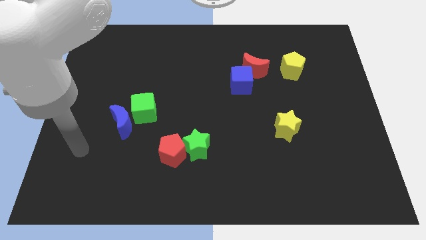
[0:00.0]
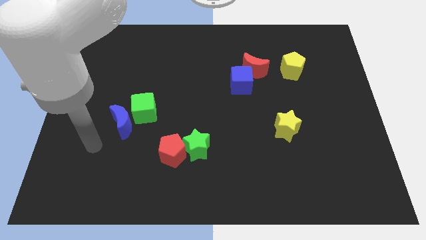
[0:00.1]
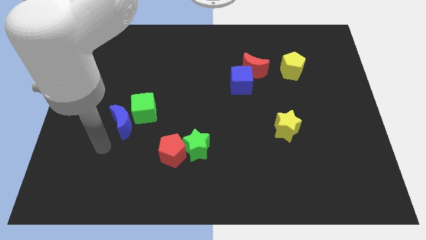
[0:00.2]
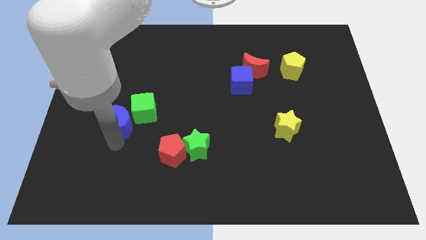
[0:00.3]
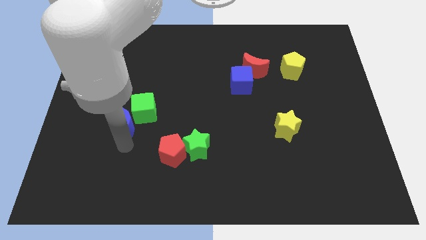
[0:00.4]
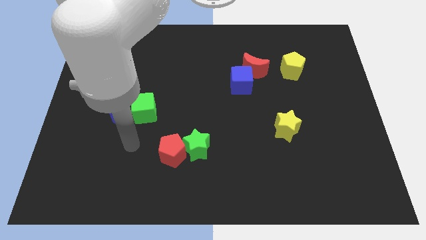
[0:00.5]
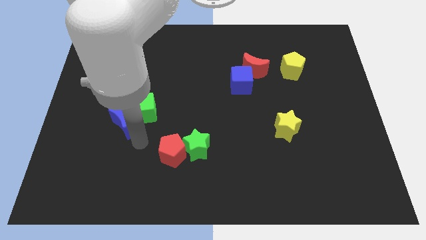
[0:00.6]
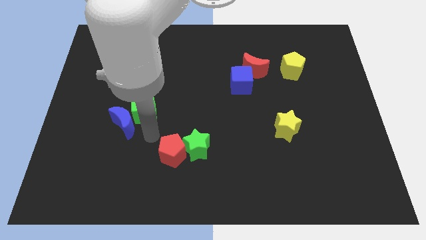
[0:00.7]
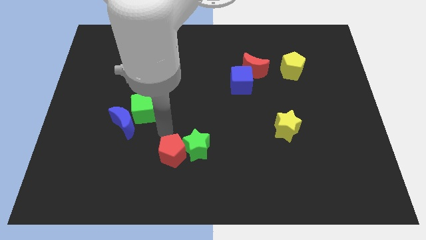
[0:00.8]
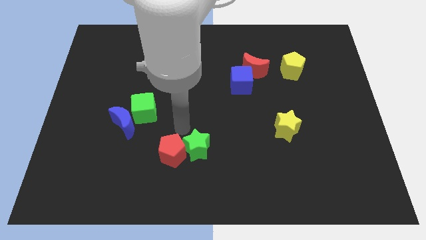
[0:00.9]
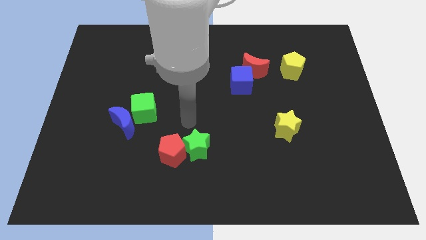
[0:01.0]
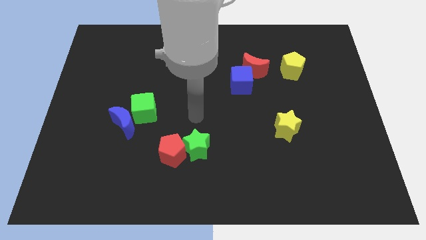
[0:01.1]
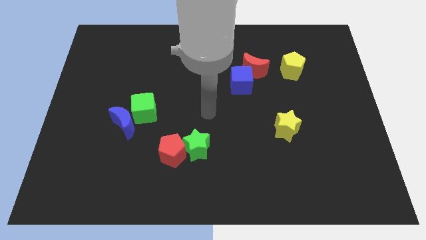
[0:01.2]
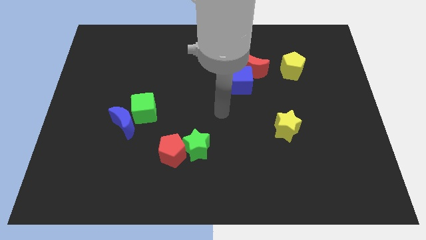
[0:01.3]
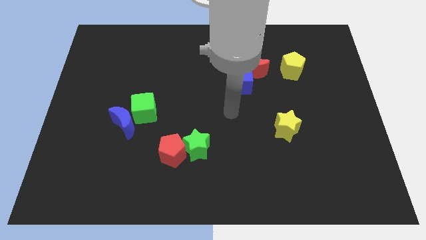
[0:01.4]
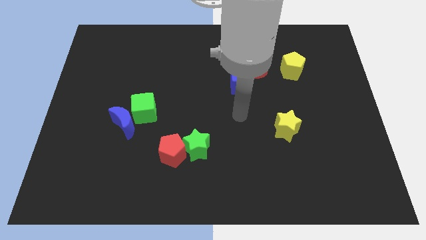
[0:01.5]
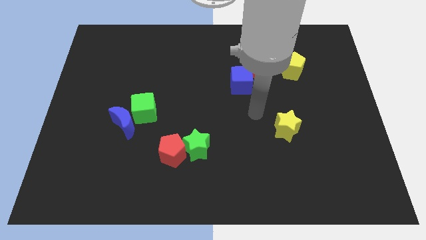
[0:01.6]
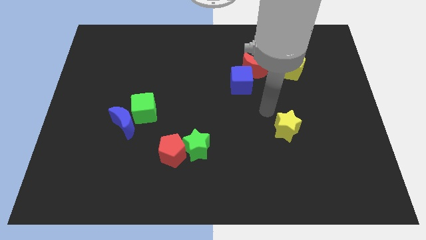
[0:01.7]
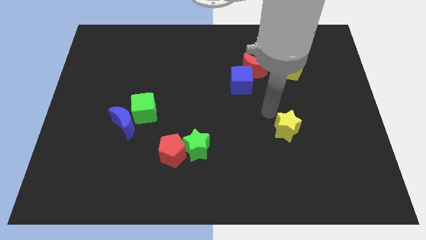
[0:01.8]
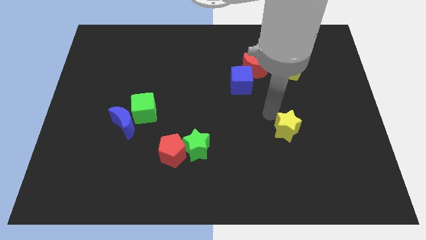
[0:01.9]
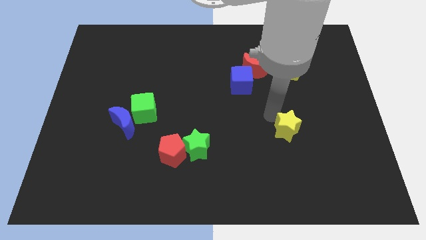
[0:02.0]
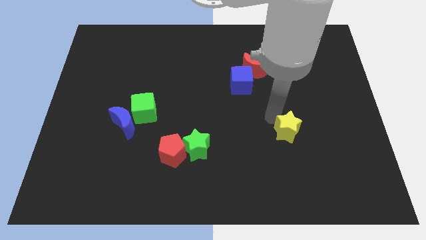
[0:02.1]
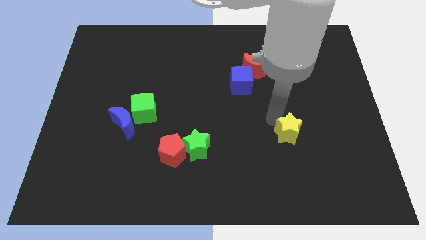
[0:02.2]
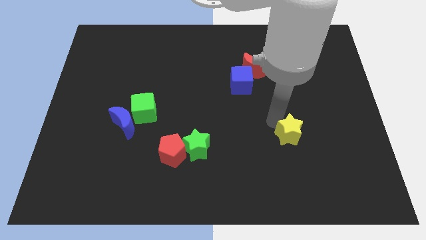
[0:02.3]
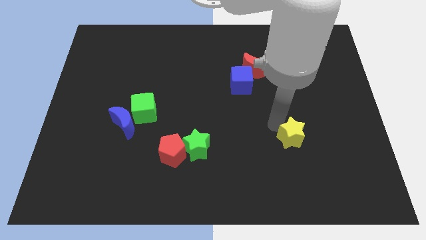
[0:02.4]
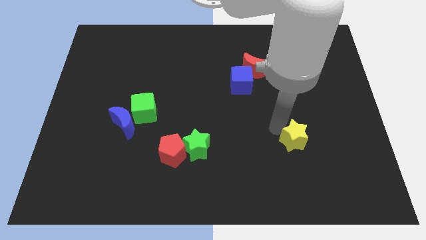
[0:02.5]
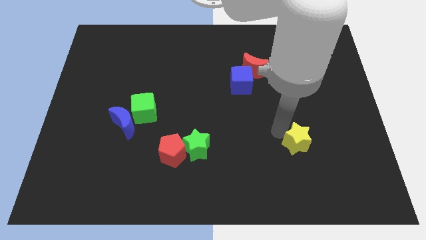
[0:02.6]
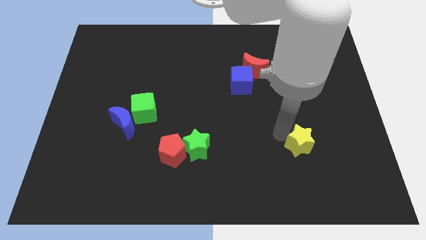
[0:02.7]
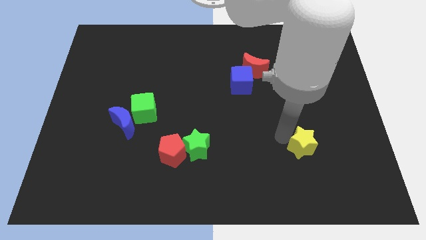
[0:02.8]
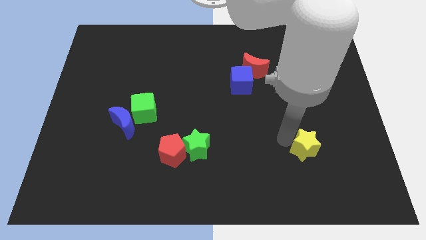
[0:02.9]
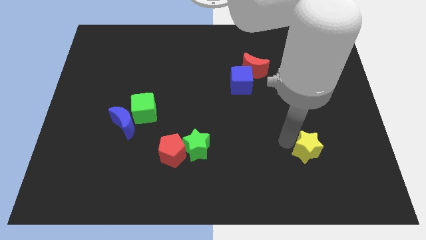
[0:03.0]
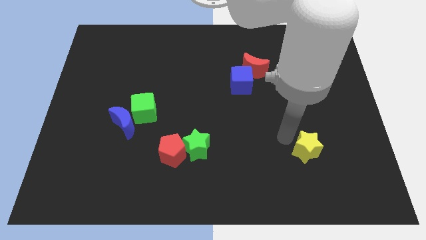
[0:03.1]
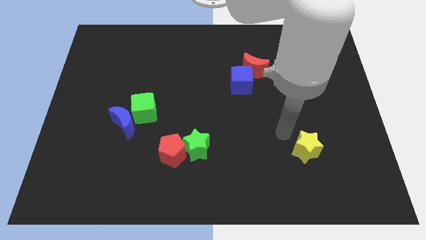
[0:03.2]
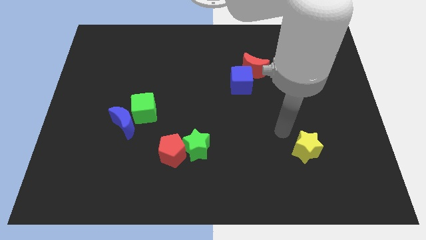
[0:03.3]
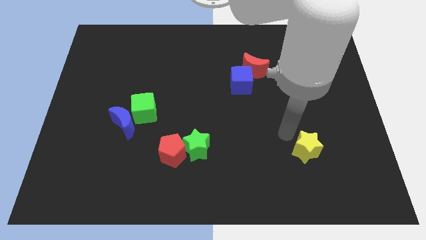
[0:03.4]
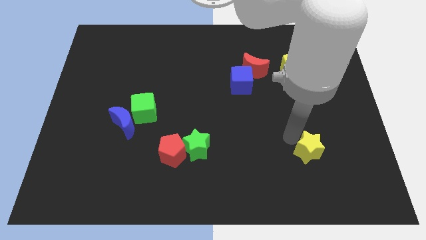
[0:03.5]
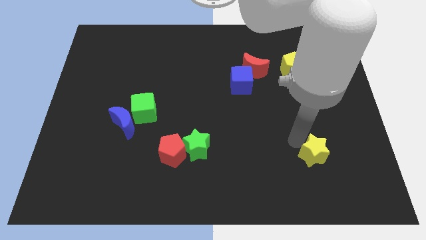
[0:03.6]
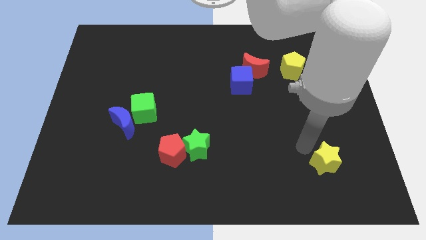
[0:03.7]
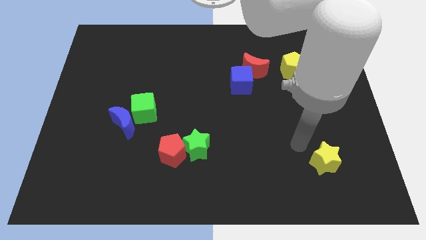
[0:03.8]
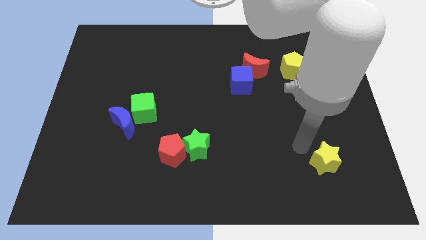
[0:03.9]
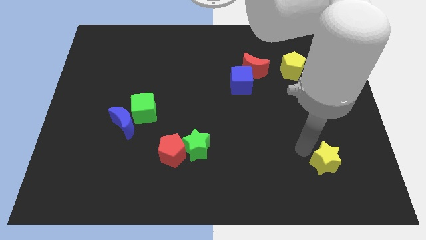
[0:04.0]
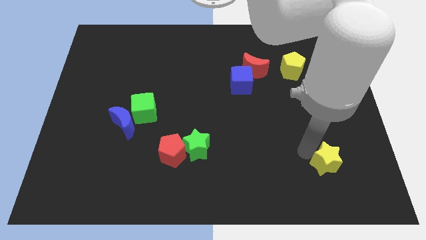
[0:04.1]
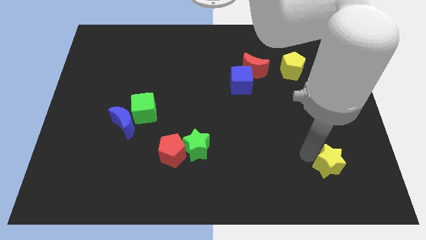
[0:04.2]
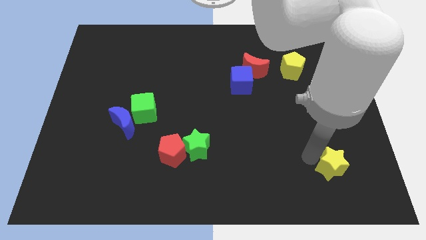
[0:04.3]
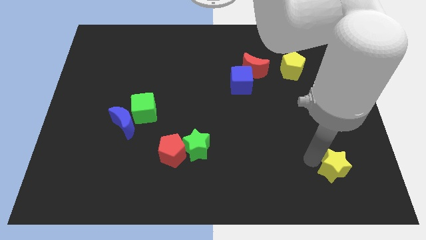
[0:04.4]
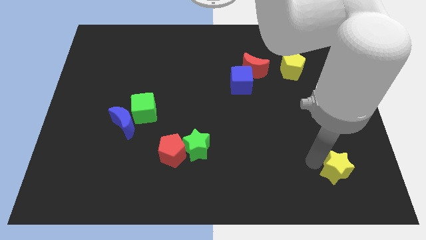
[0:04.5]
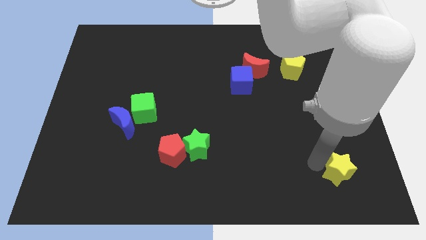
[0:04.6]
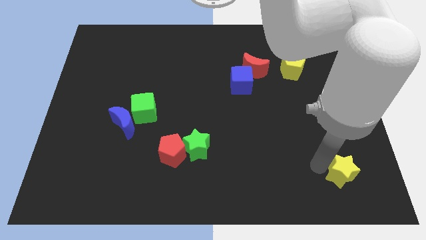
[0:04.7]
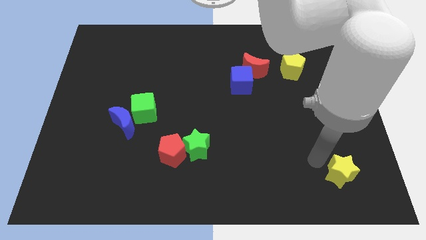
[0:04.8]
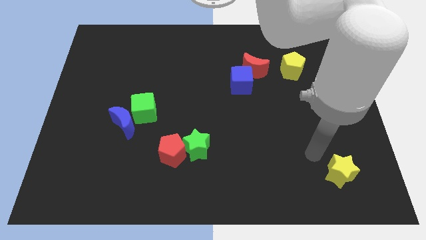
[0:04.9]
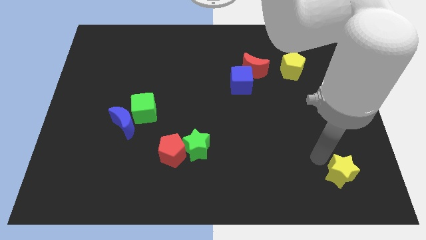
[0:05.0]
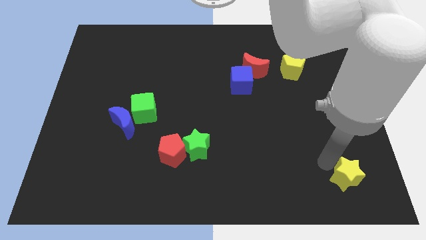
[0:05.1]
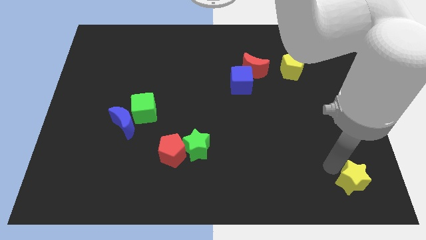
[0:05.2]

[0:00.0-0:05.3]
put the yellow star to the bottom right

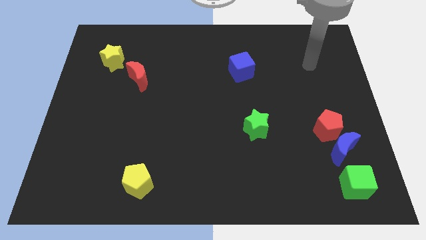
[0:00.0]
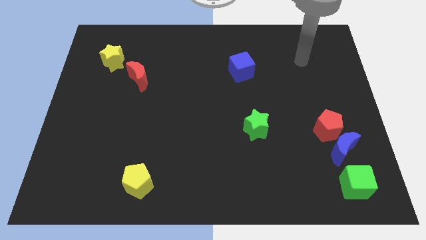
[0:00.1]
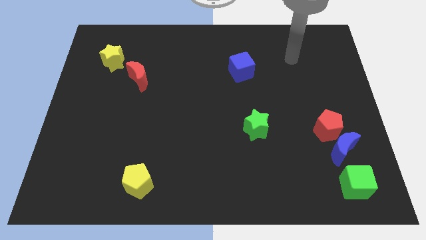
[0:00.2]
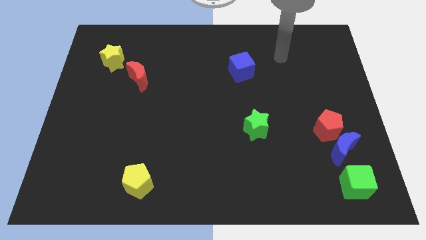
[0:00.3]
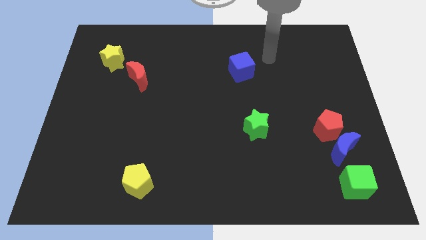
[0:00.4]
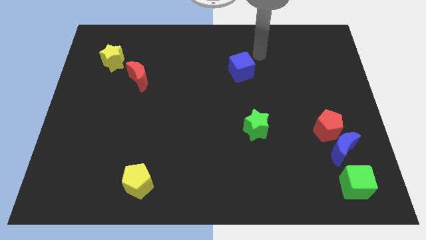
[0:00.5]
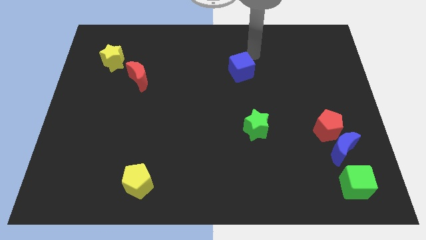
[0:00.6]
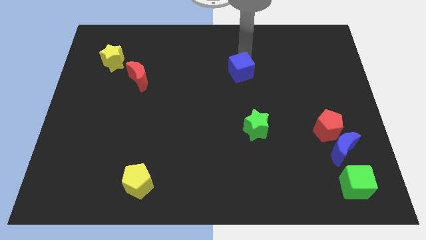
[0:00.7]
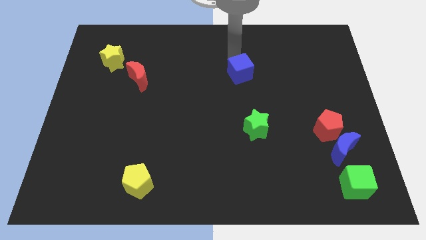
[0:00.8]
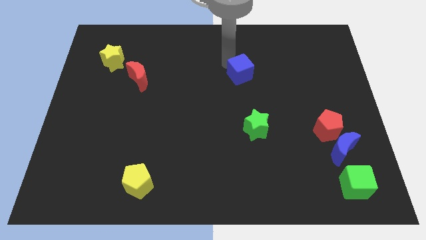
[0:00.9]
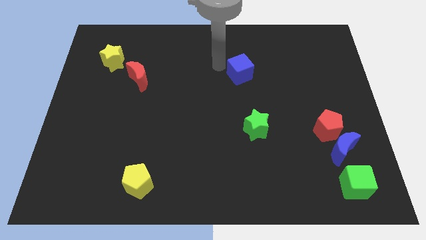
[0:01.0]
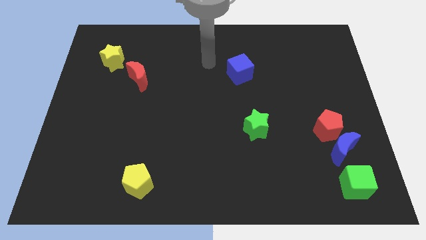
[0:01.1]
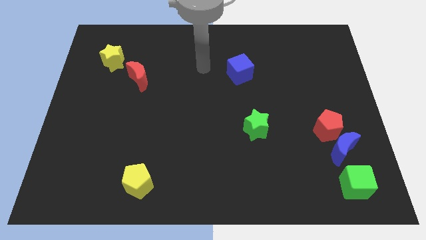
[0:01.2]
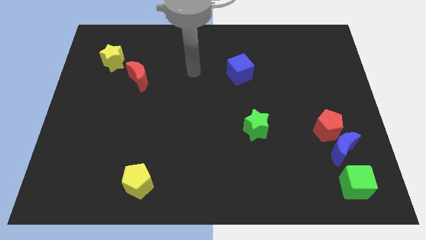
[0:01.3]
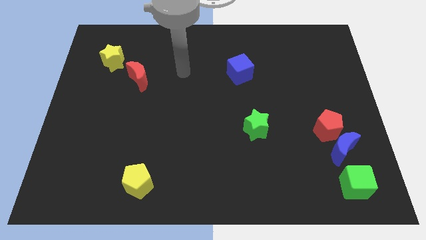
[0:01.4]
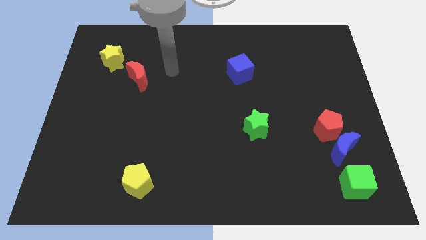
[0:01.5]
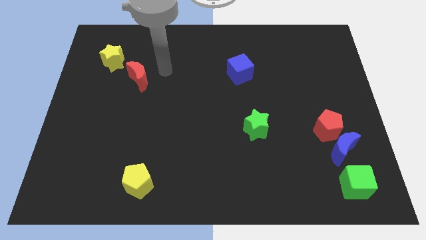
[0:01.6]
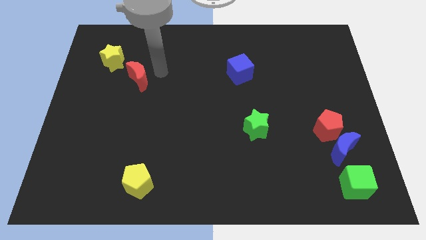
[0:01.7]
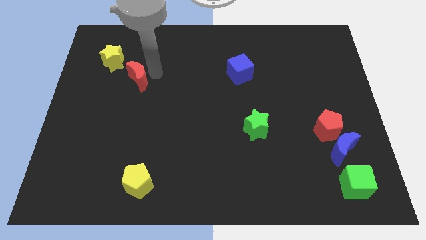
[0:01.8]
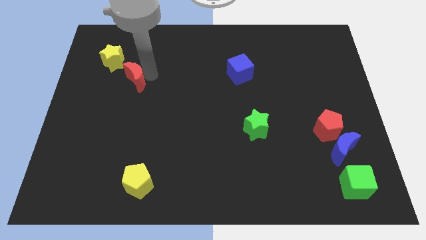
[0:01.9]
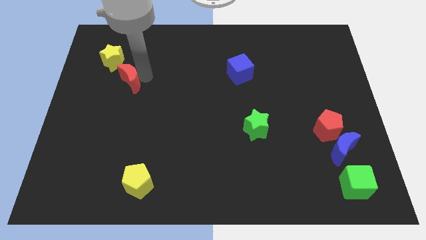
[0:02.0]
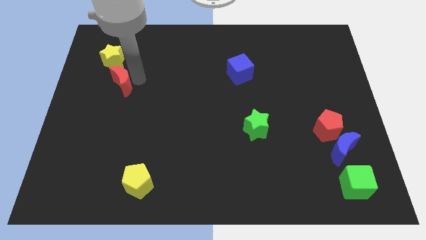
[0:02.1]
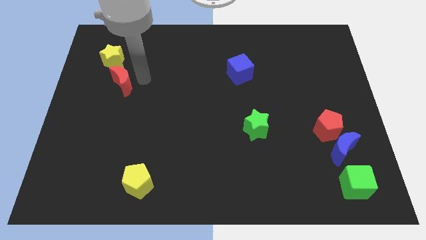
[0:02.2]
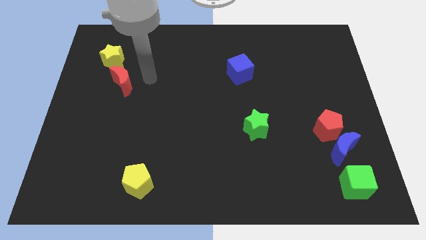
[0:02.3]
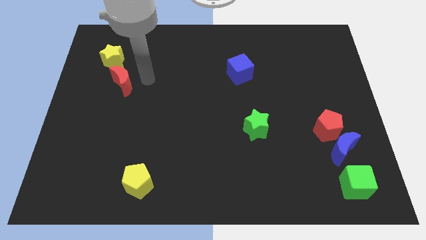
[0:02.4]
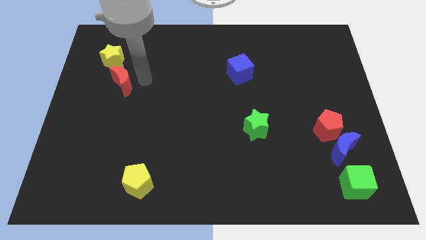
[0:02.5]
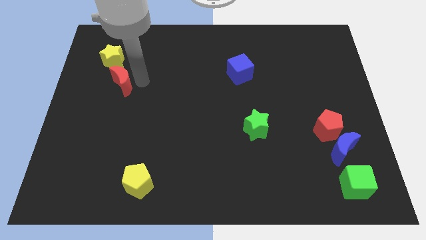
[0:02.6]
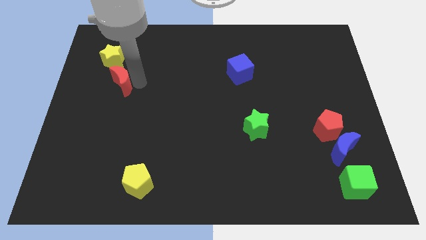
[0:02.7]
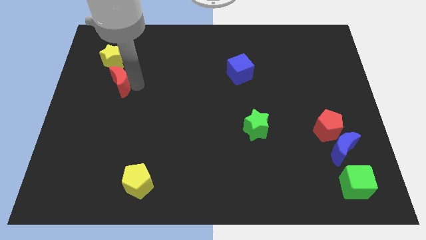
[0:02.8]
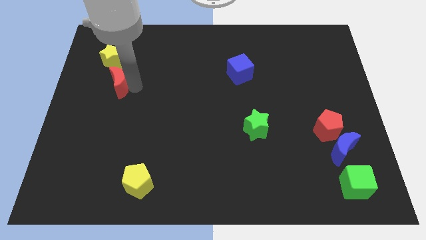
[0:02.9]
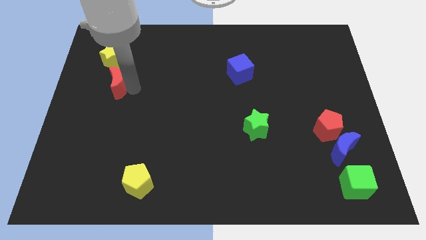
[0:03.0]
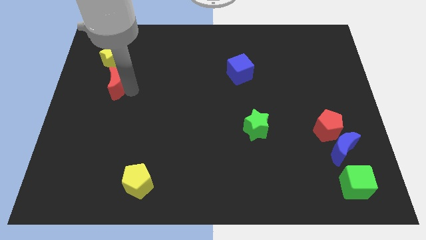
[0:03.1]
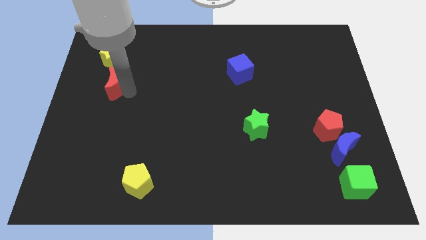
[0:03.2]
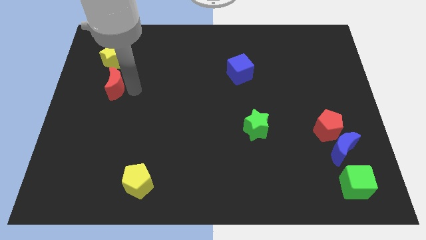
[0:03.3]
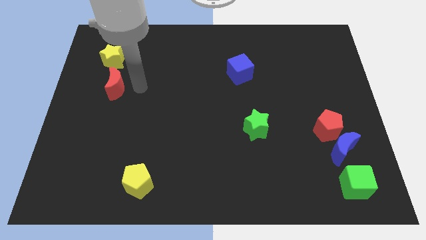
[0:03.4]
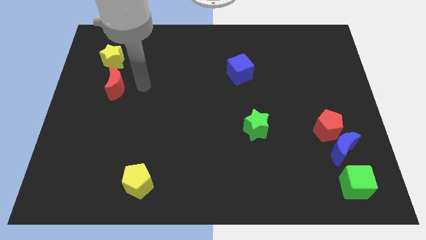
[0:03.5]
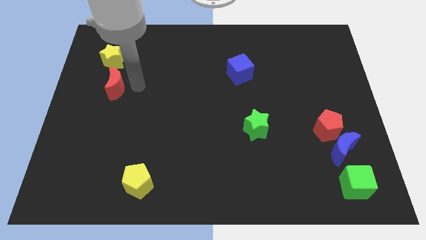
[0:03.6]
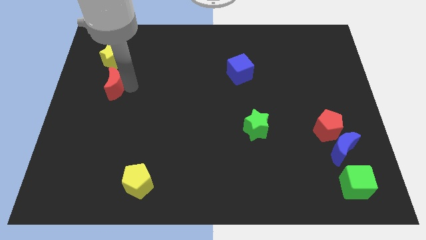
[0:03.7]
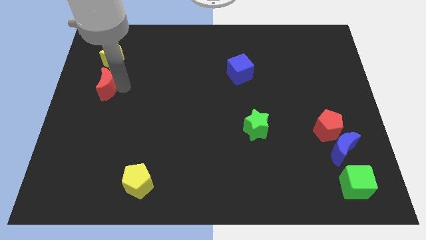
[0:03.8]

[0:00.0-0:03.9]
move the red moon to the left side of the board
